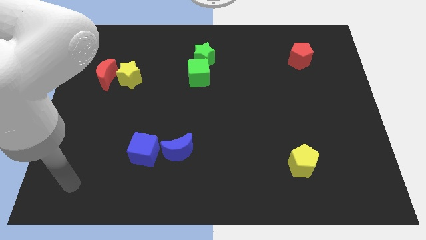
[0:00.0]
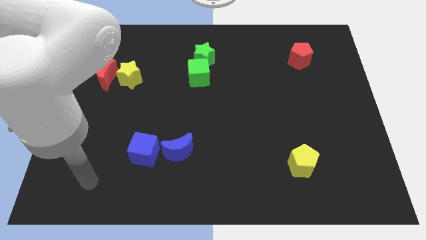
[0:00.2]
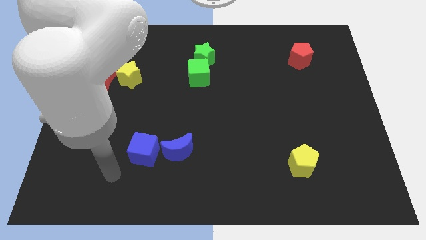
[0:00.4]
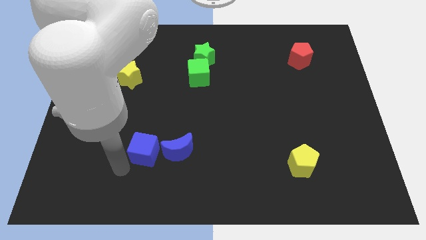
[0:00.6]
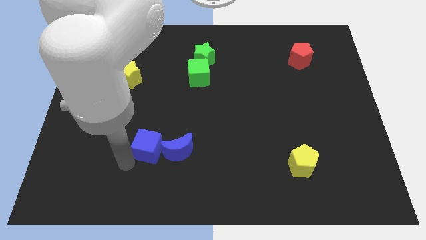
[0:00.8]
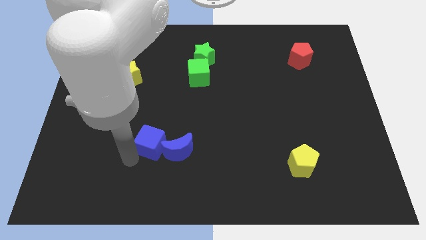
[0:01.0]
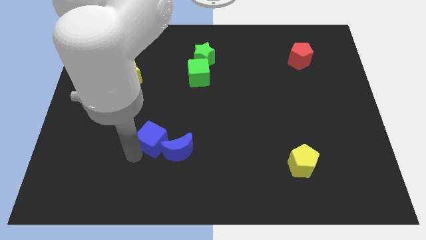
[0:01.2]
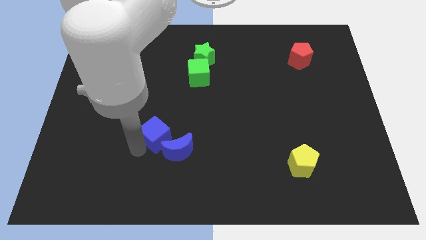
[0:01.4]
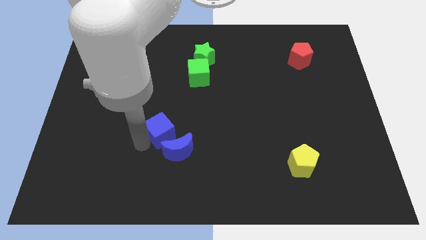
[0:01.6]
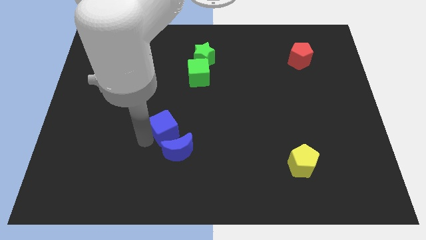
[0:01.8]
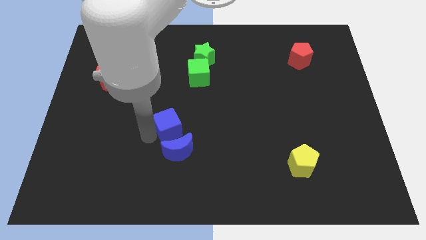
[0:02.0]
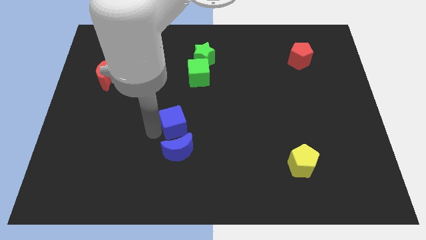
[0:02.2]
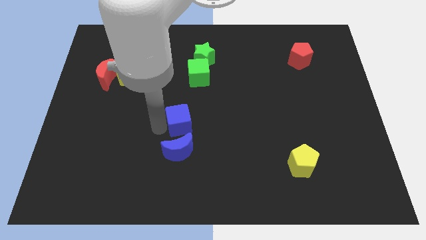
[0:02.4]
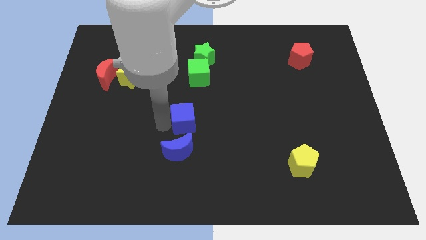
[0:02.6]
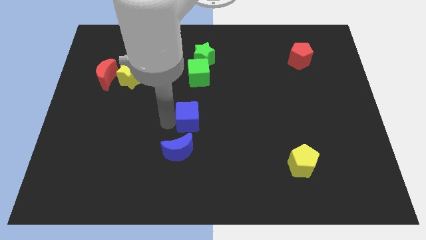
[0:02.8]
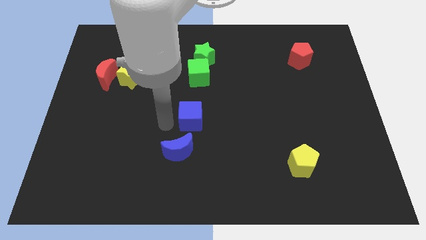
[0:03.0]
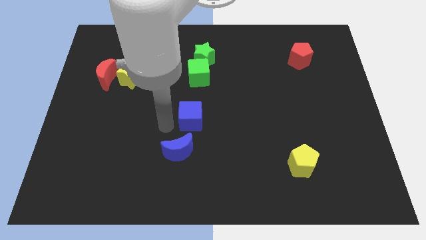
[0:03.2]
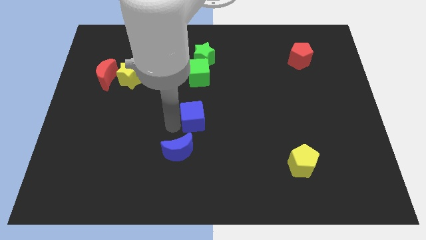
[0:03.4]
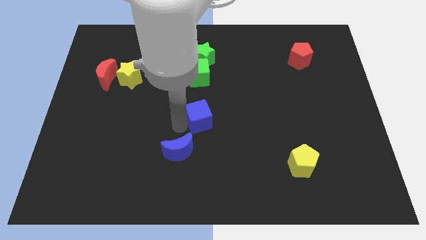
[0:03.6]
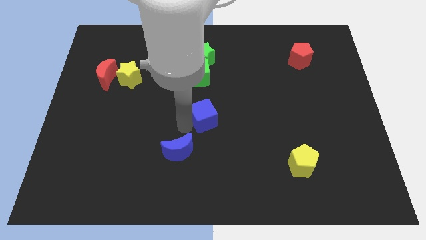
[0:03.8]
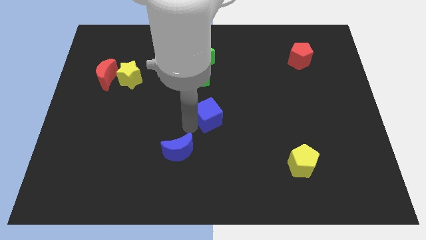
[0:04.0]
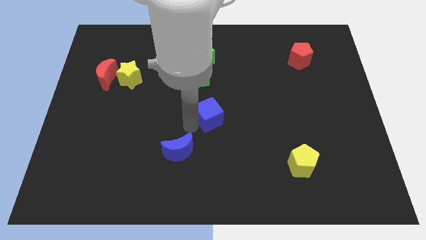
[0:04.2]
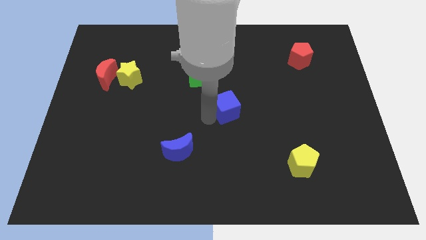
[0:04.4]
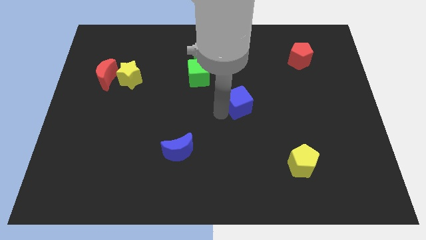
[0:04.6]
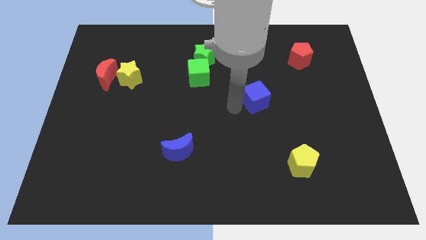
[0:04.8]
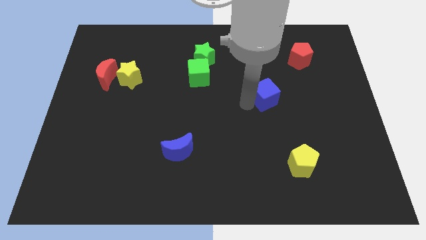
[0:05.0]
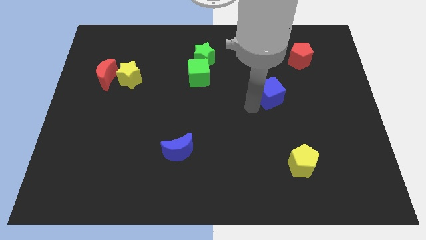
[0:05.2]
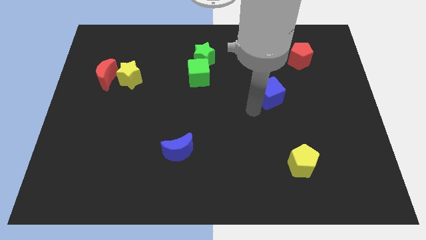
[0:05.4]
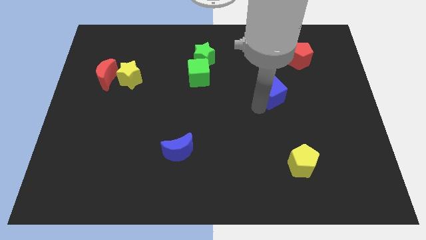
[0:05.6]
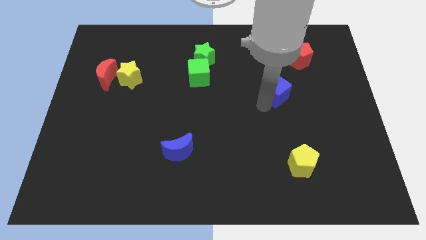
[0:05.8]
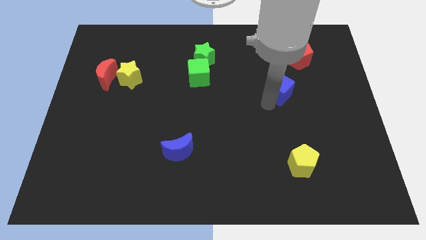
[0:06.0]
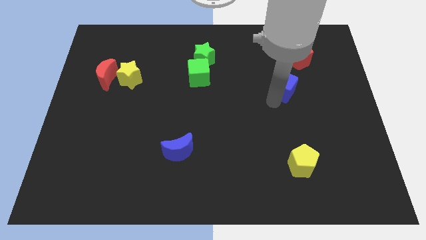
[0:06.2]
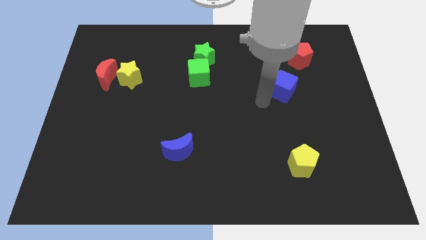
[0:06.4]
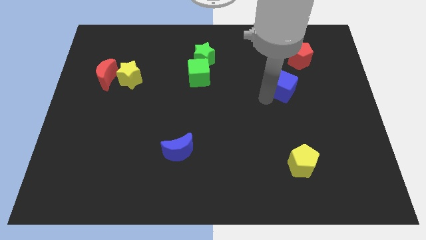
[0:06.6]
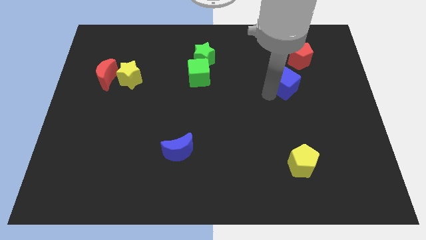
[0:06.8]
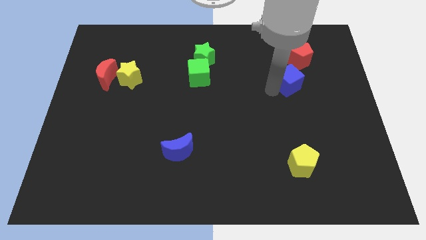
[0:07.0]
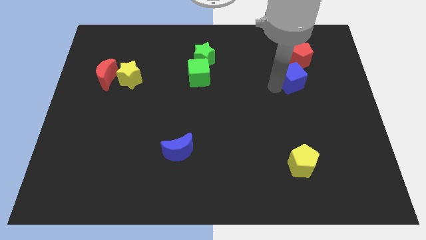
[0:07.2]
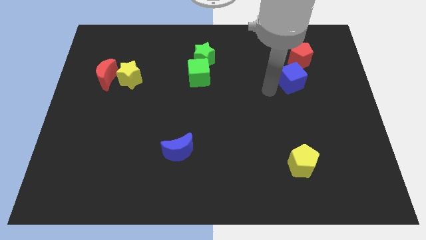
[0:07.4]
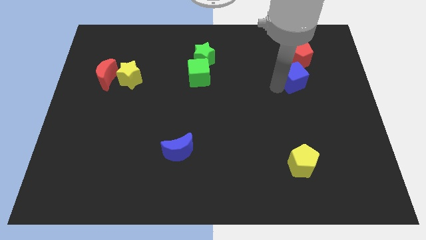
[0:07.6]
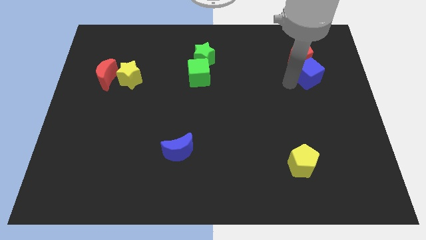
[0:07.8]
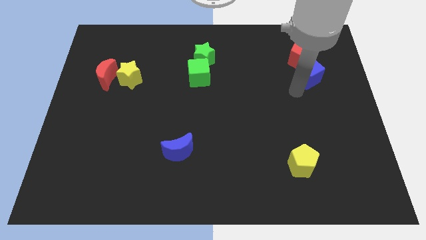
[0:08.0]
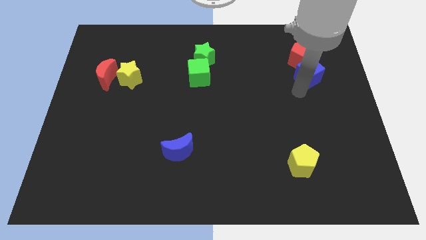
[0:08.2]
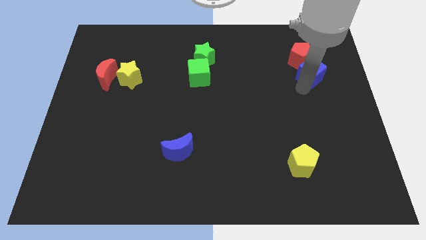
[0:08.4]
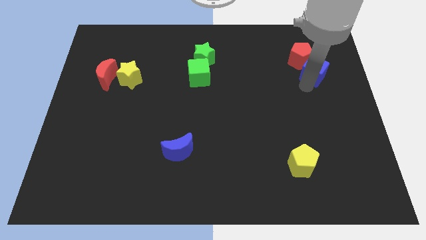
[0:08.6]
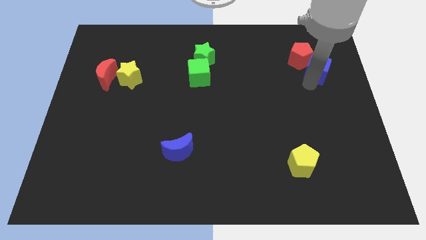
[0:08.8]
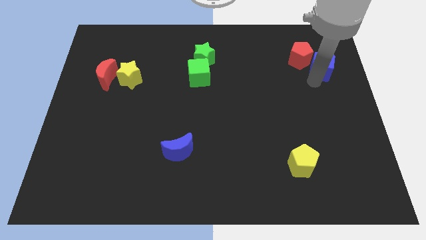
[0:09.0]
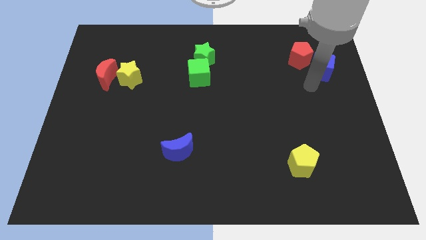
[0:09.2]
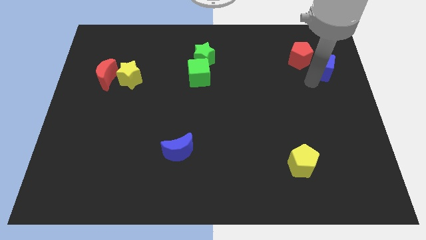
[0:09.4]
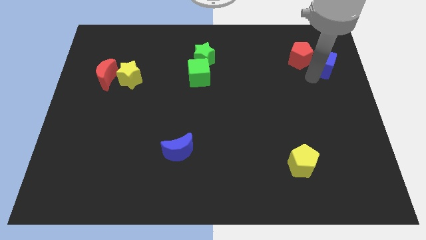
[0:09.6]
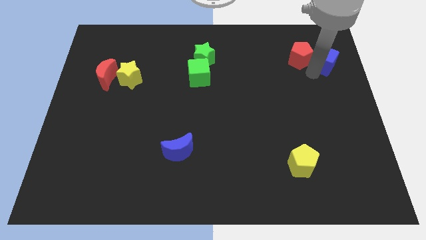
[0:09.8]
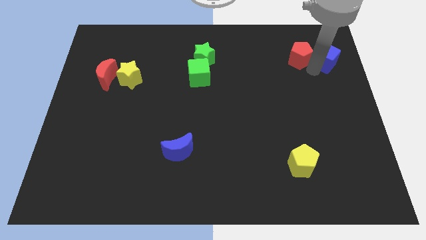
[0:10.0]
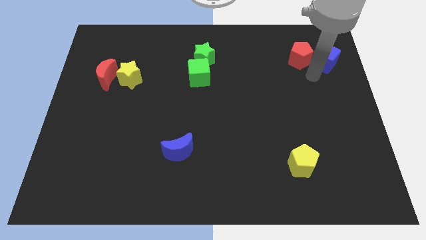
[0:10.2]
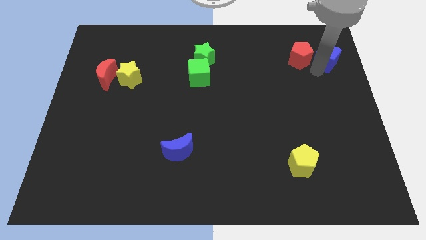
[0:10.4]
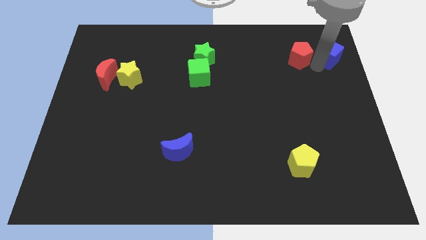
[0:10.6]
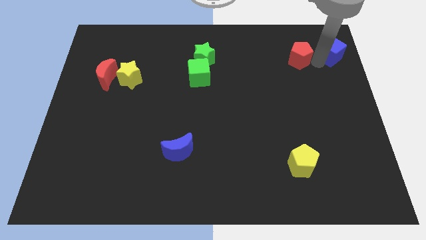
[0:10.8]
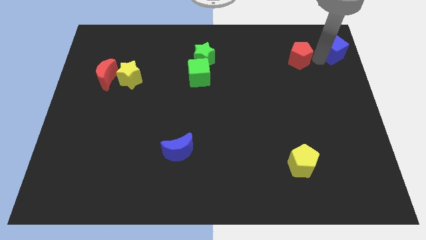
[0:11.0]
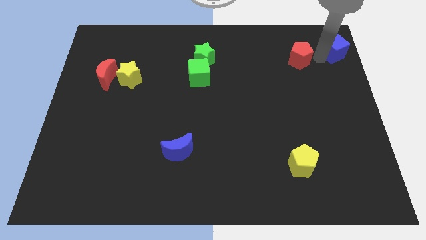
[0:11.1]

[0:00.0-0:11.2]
put the blue cube to the top right
